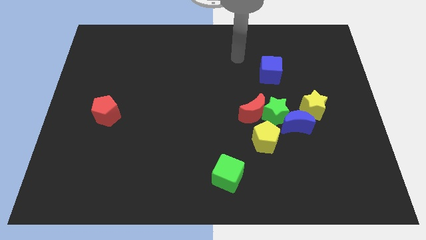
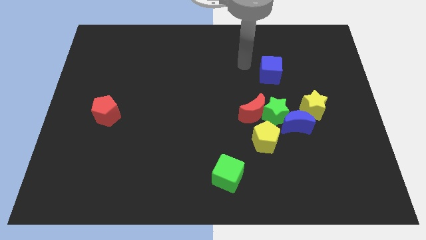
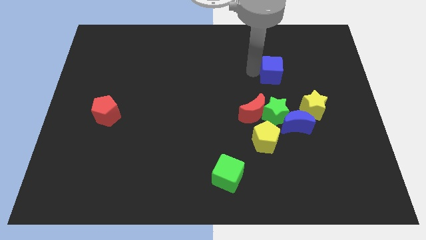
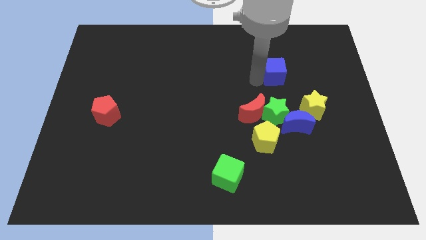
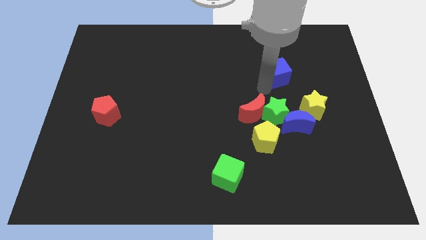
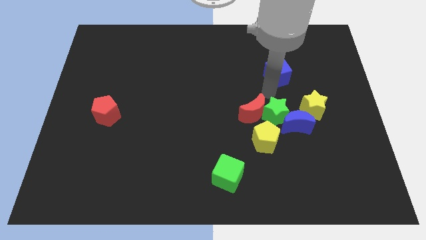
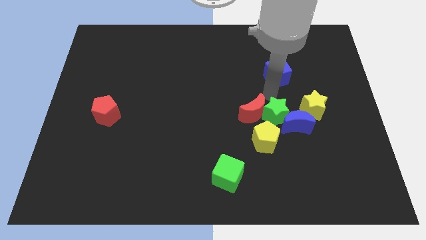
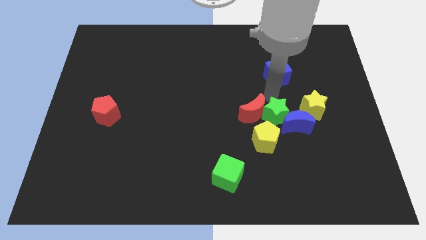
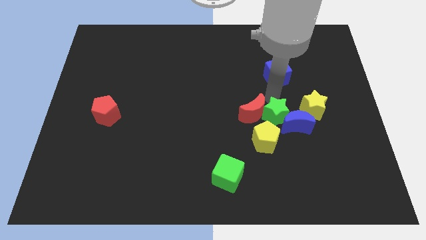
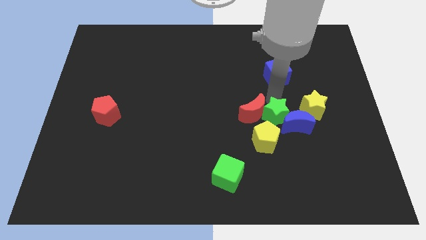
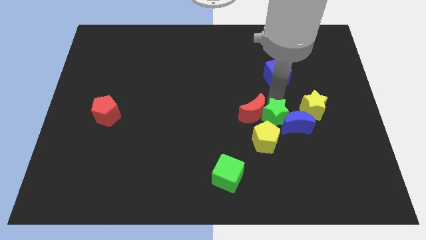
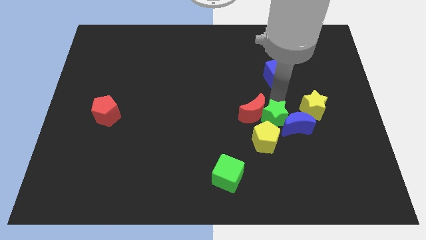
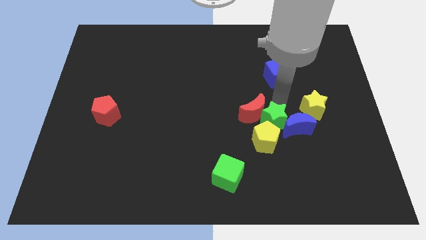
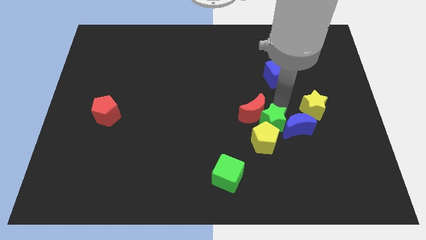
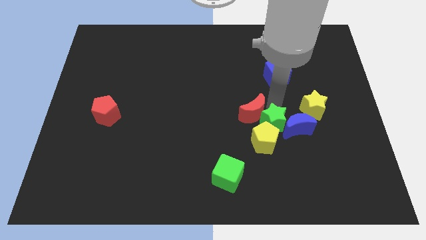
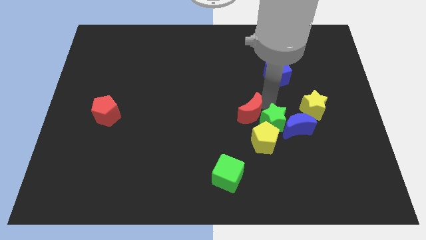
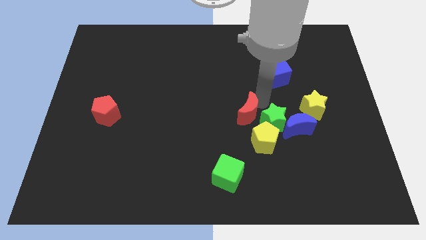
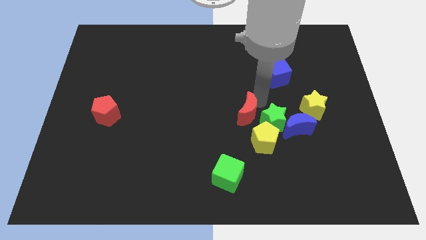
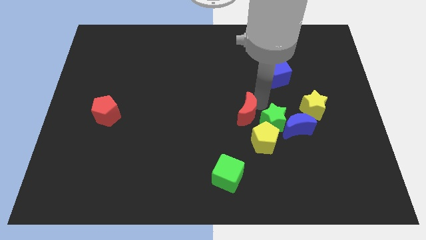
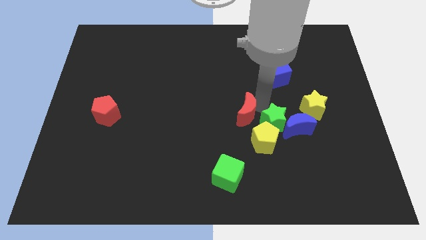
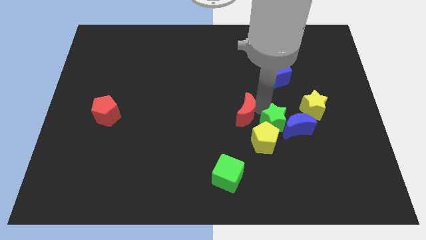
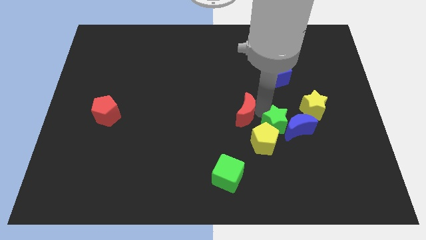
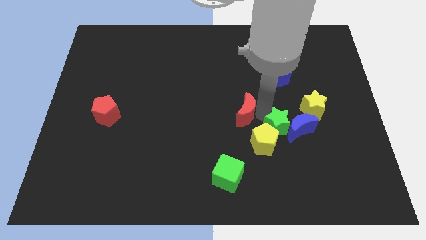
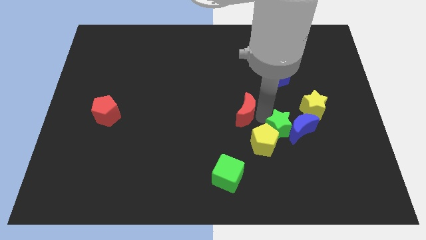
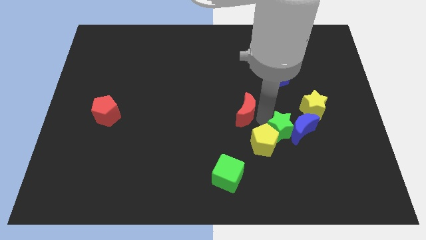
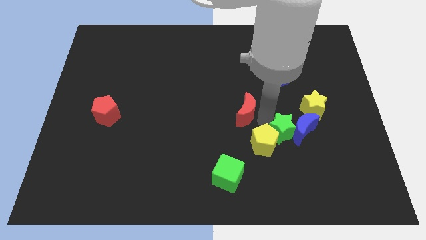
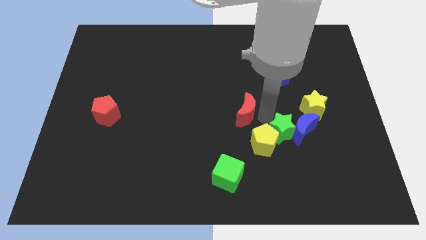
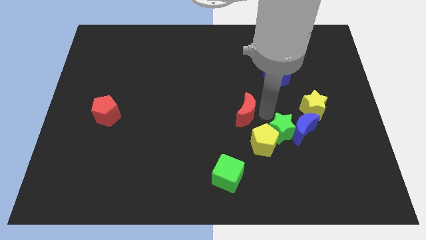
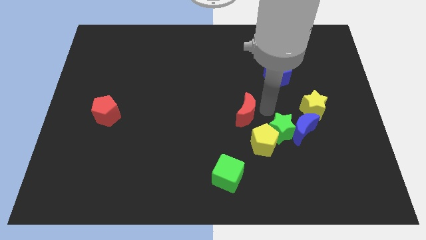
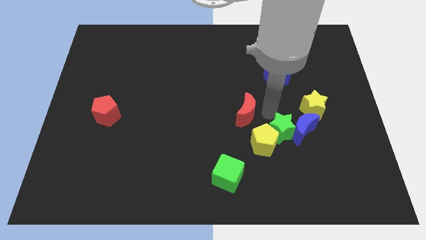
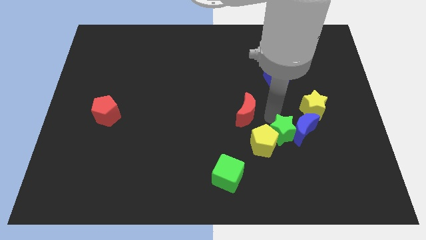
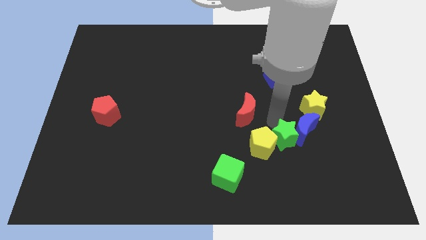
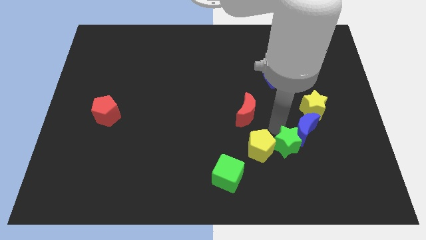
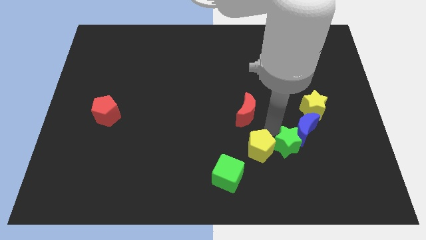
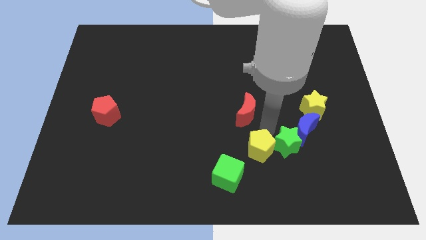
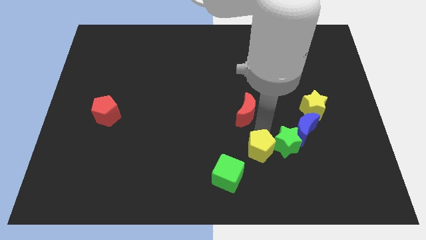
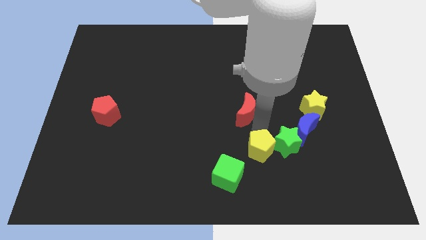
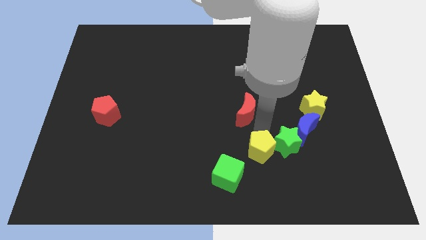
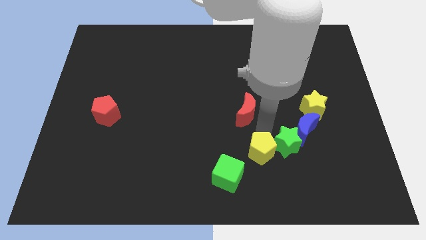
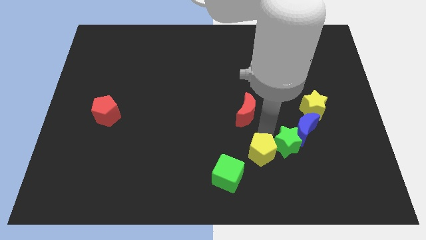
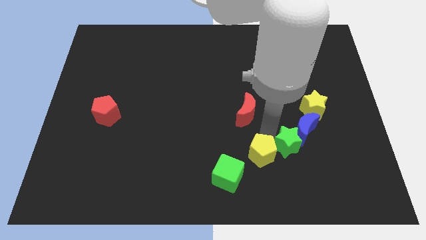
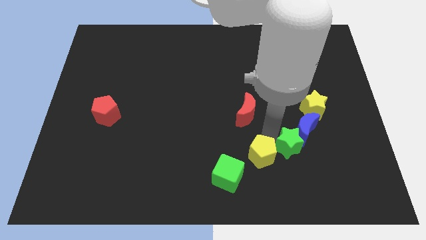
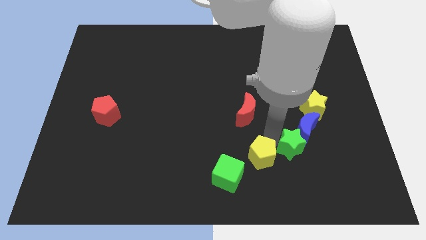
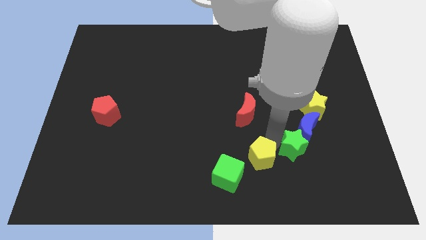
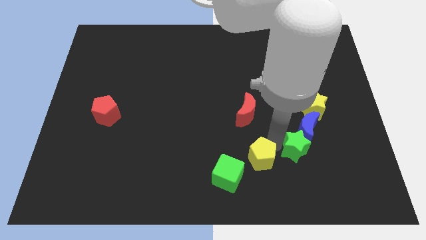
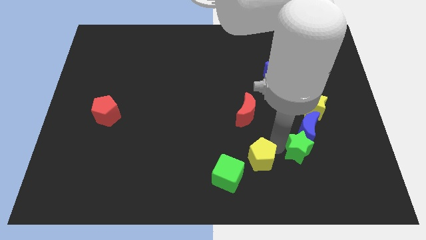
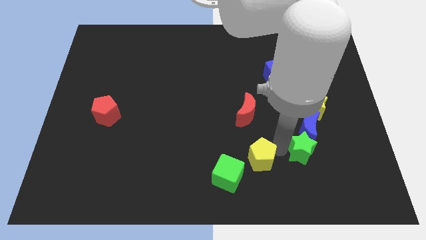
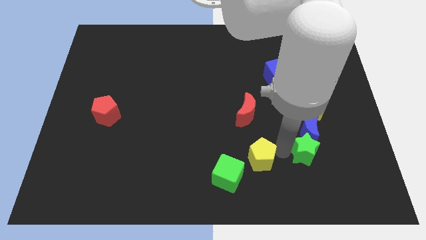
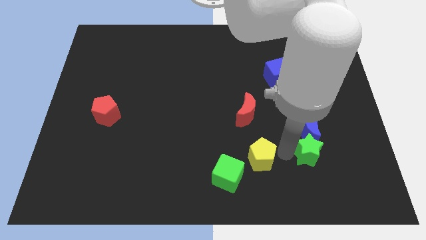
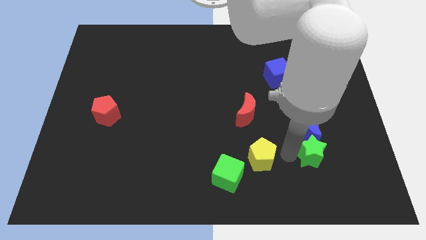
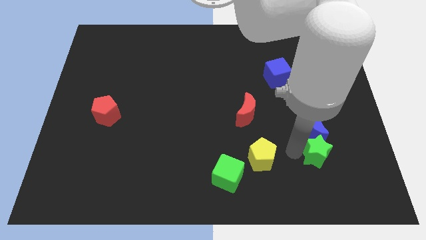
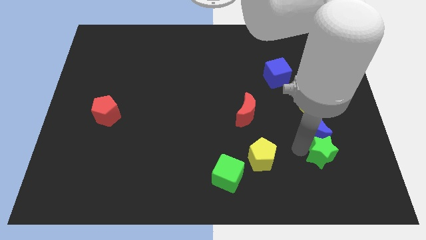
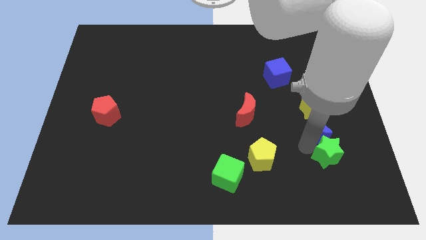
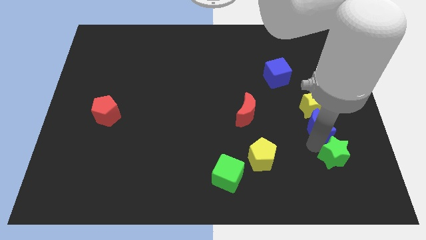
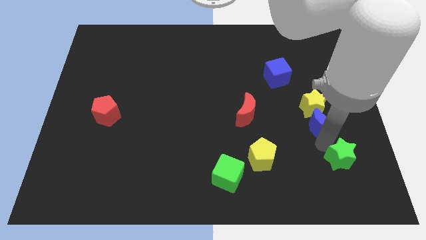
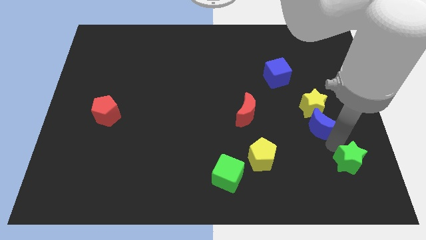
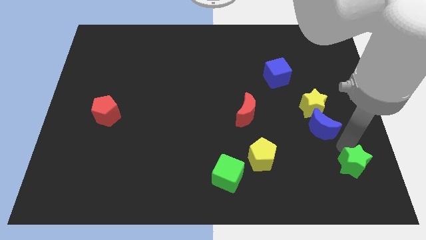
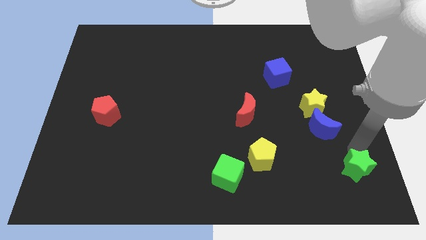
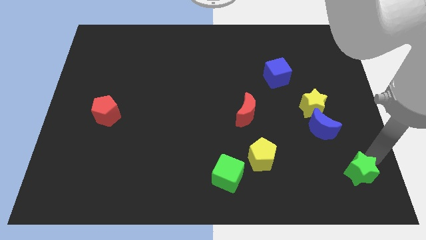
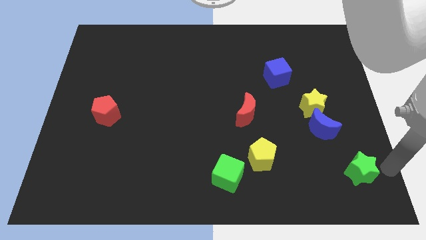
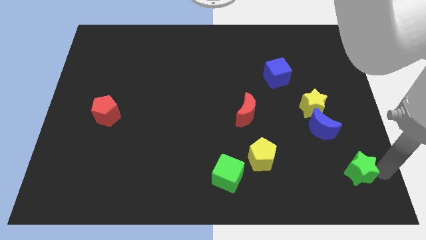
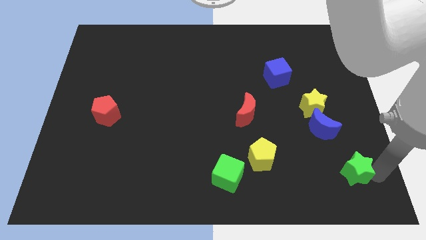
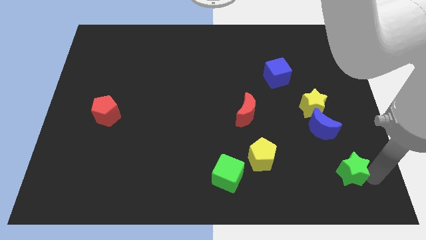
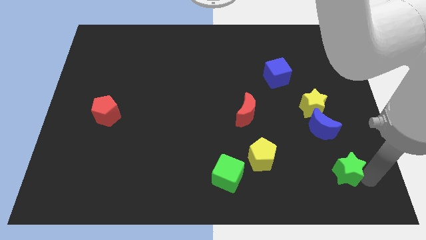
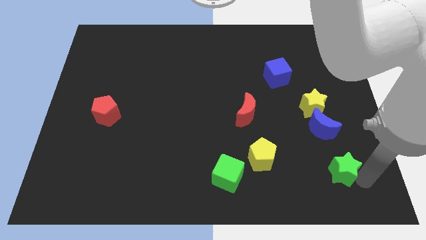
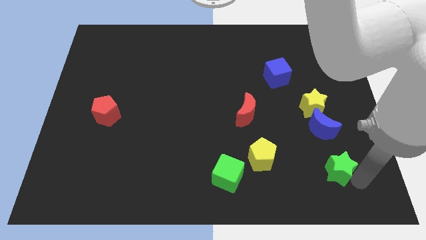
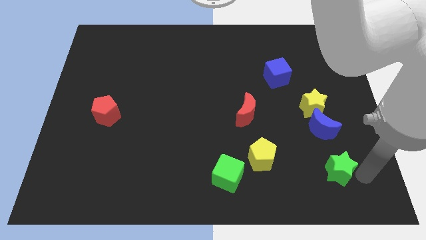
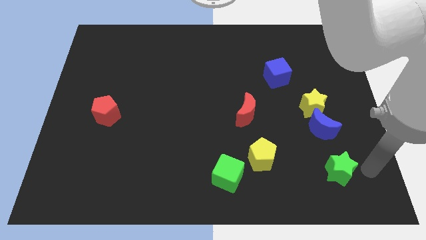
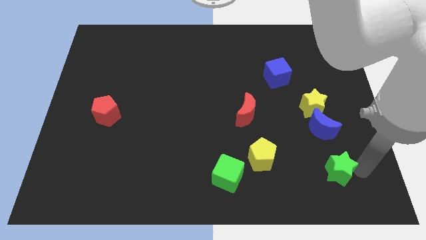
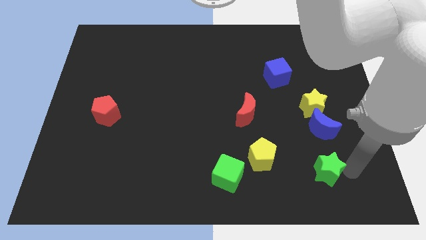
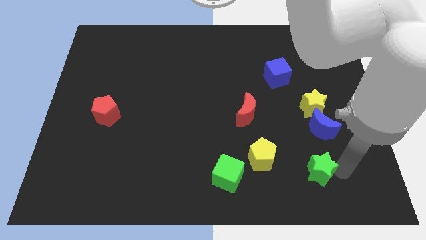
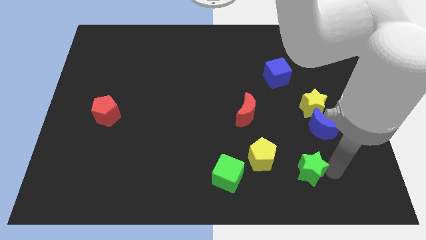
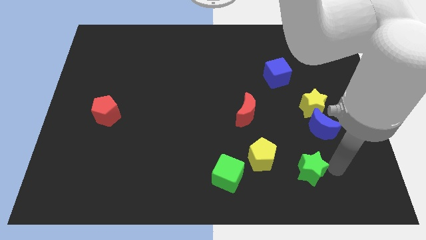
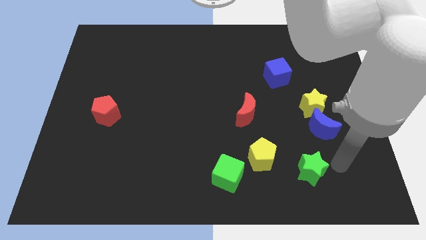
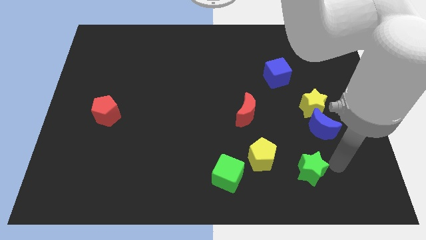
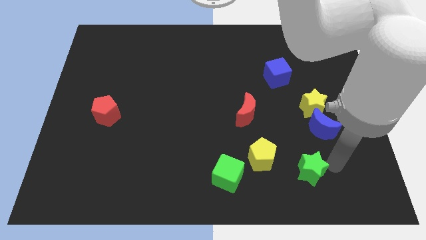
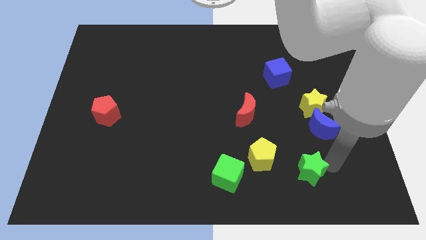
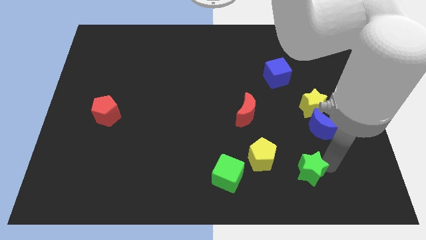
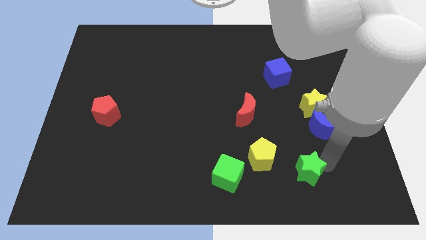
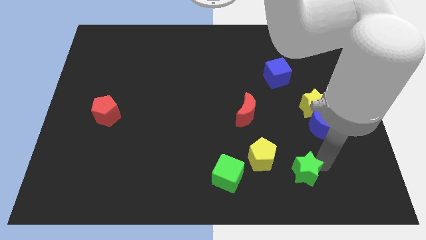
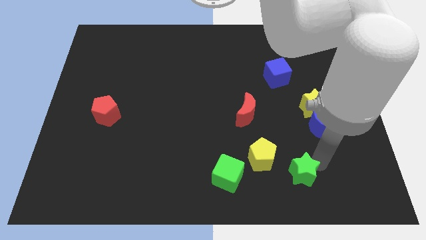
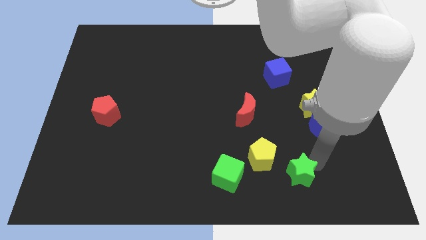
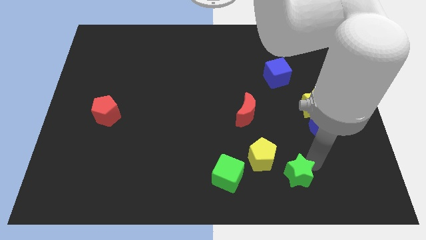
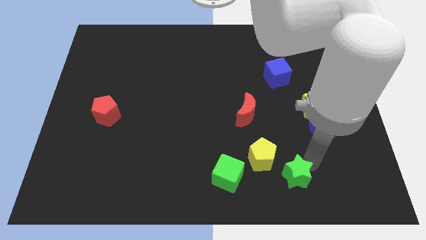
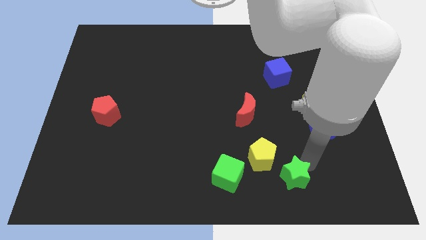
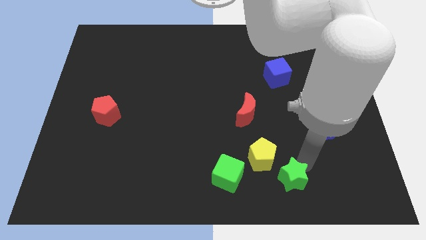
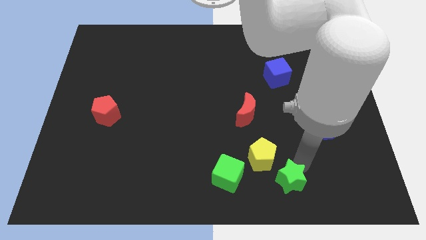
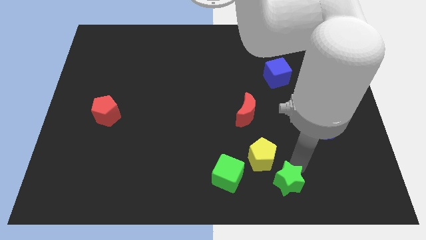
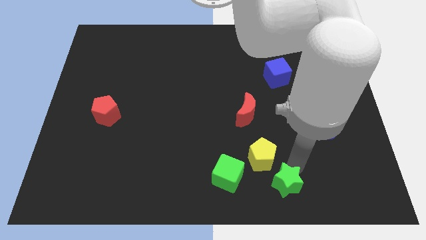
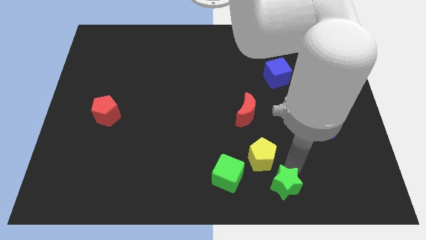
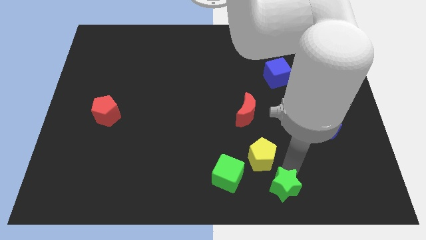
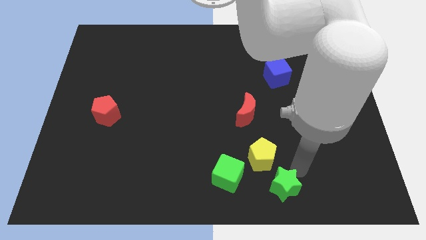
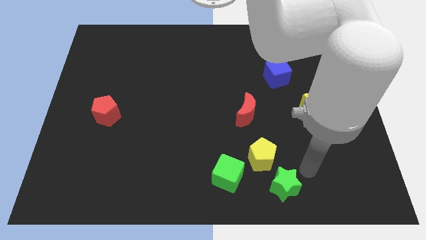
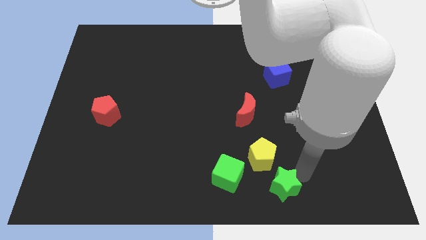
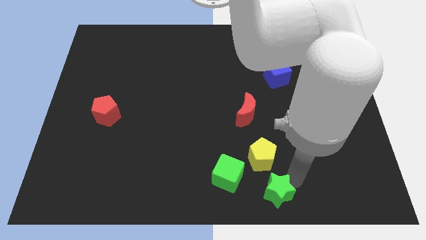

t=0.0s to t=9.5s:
put the green star to the bottom
